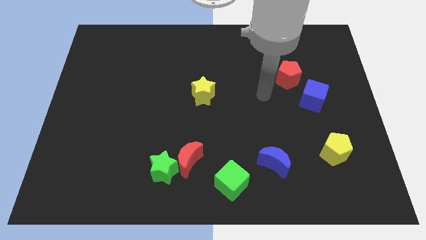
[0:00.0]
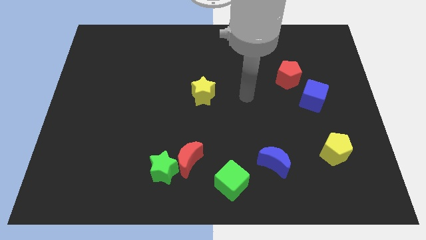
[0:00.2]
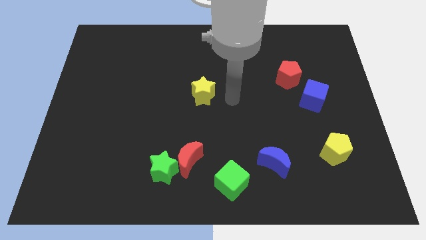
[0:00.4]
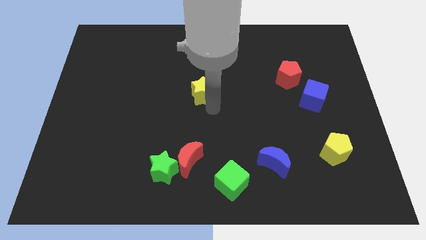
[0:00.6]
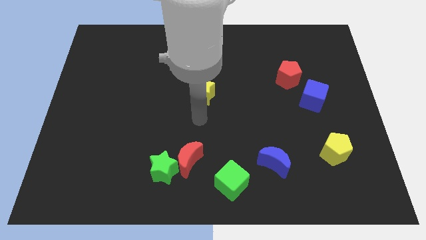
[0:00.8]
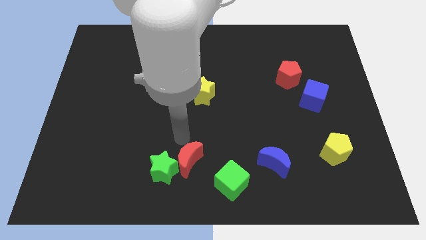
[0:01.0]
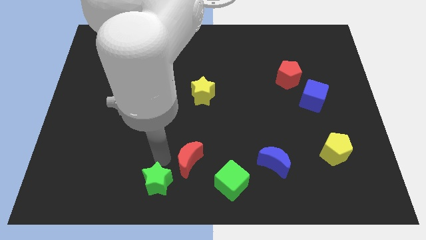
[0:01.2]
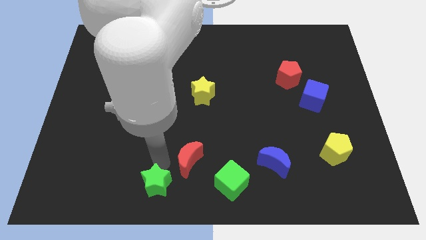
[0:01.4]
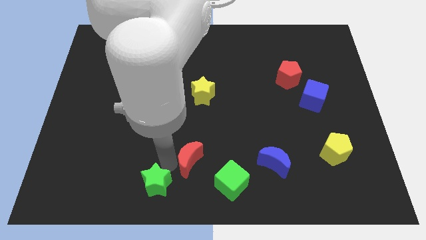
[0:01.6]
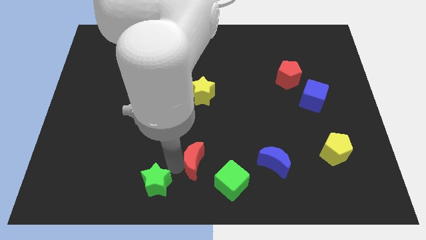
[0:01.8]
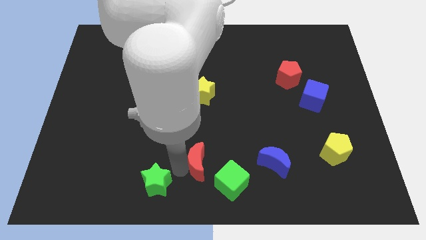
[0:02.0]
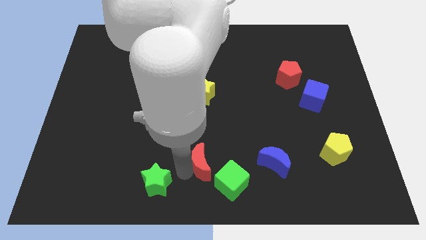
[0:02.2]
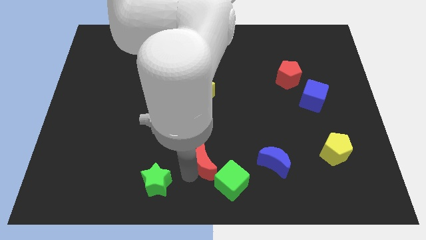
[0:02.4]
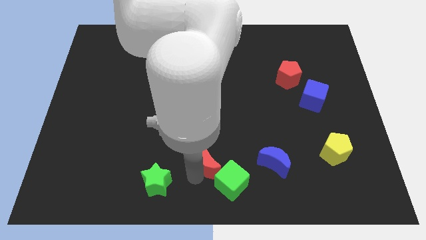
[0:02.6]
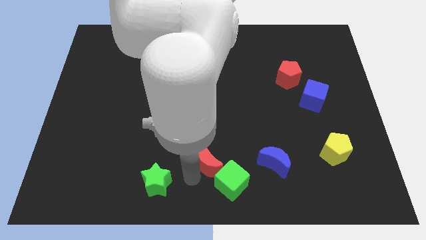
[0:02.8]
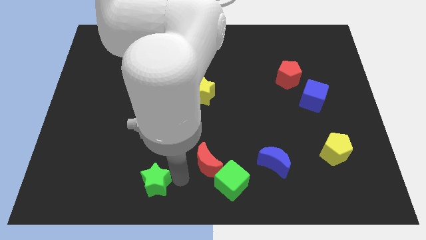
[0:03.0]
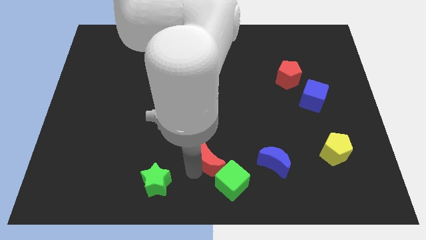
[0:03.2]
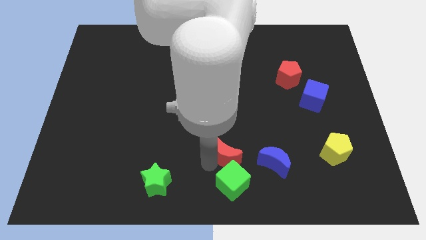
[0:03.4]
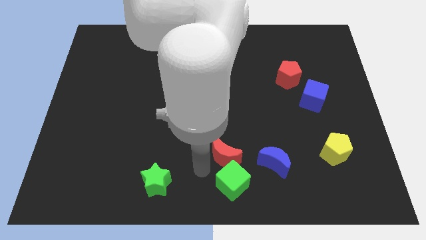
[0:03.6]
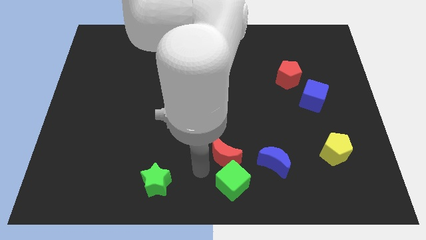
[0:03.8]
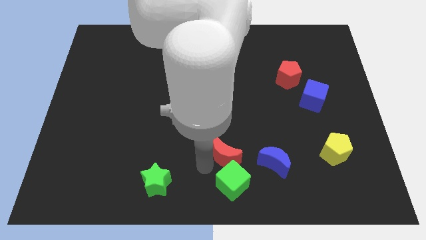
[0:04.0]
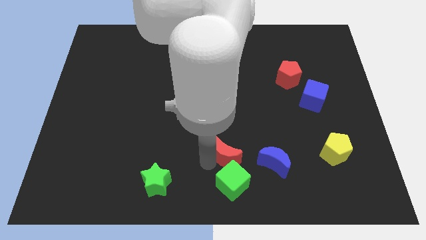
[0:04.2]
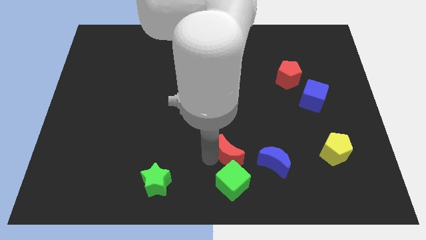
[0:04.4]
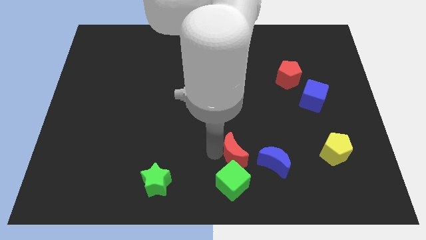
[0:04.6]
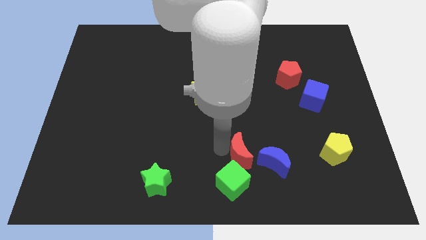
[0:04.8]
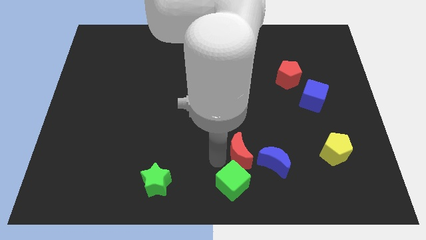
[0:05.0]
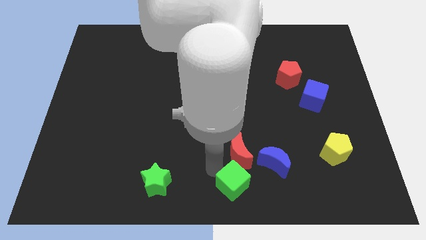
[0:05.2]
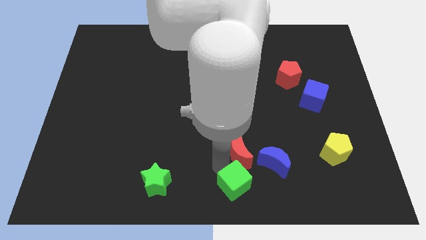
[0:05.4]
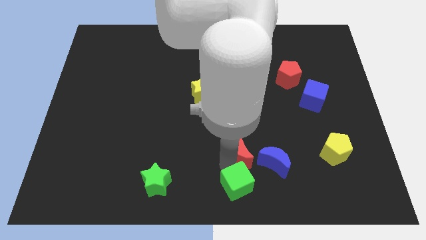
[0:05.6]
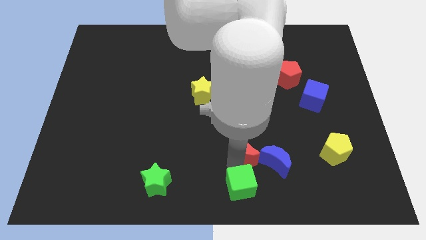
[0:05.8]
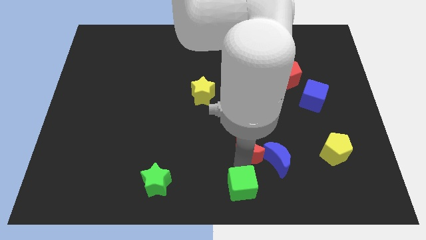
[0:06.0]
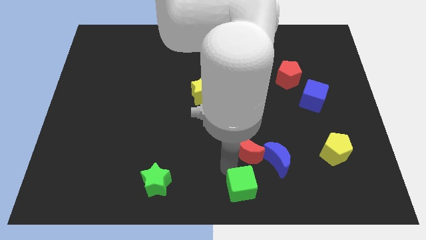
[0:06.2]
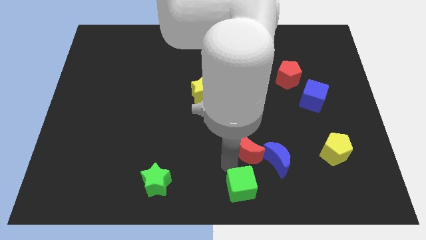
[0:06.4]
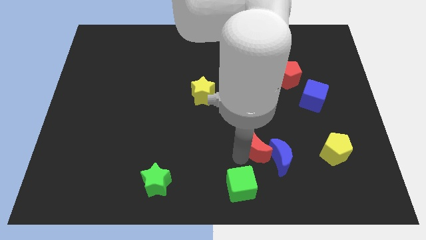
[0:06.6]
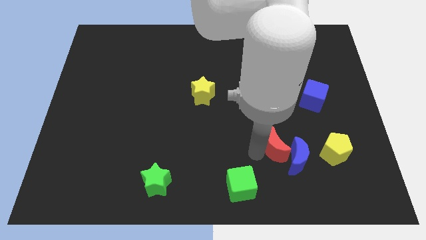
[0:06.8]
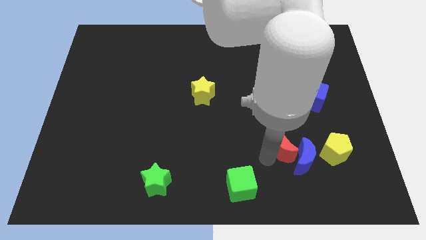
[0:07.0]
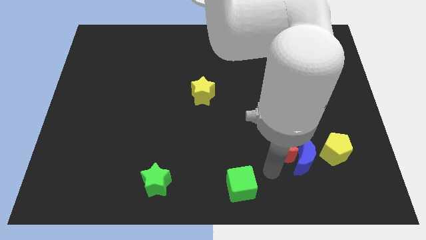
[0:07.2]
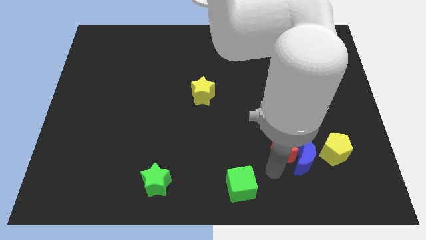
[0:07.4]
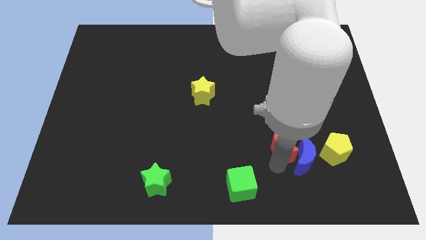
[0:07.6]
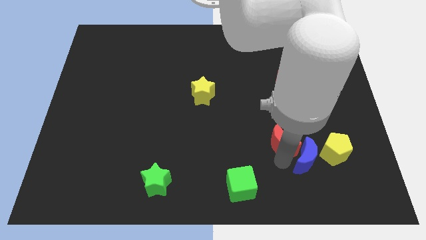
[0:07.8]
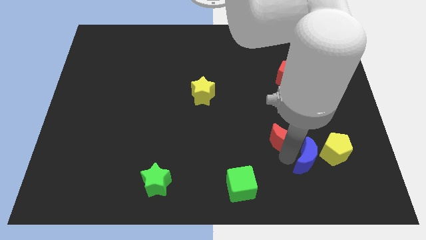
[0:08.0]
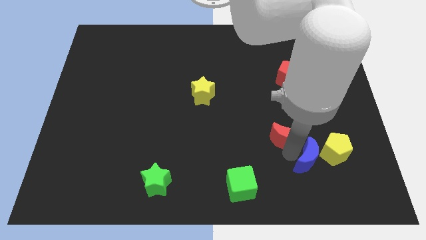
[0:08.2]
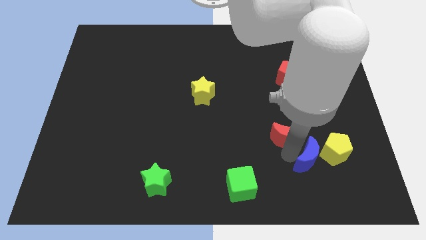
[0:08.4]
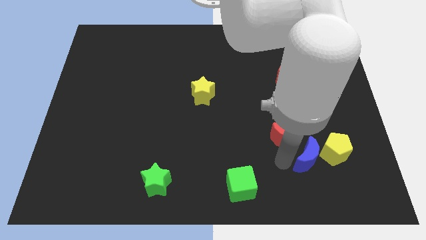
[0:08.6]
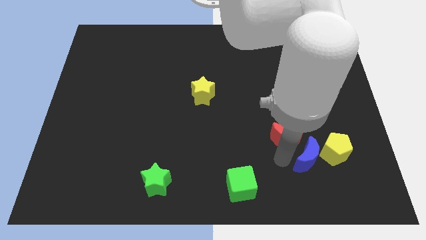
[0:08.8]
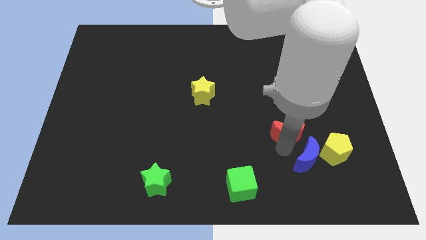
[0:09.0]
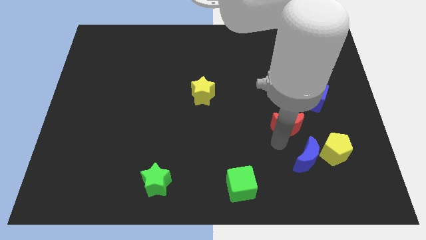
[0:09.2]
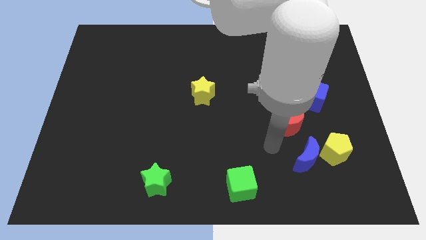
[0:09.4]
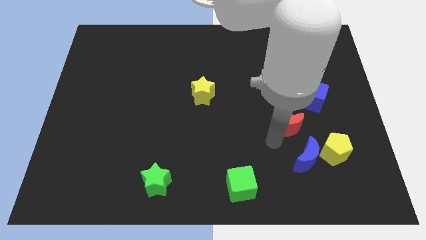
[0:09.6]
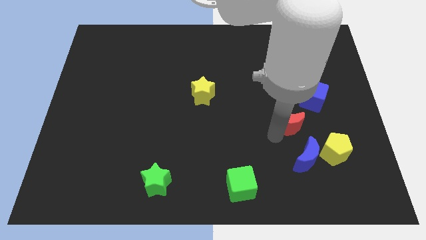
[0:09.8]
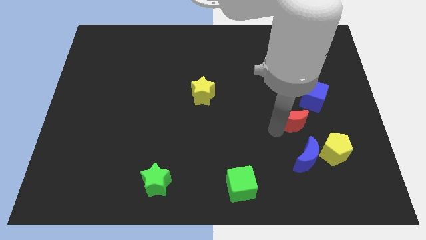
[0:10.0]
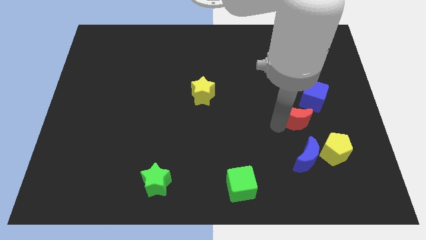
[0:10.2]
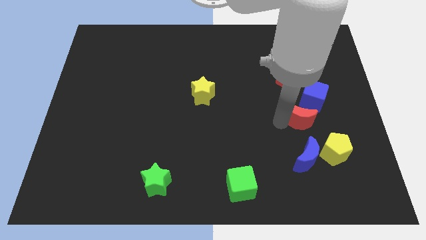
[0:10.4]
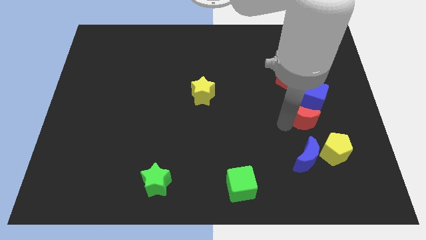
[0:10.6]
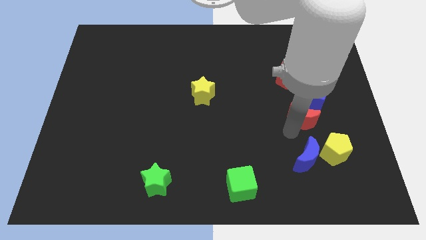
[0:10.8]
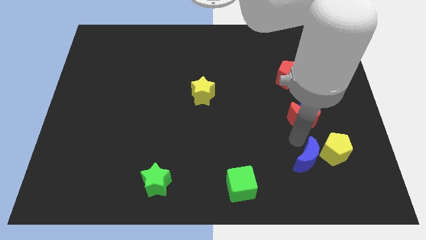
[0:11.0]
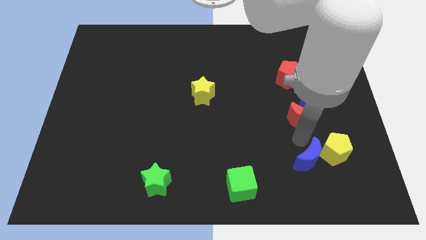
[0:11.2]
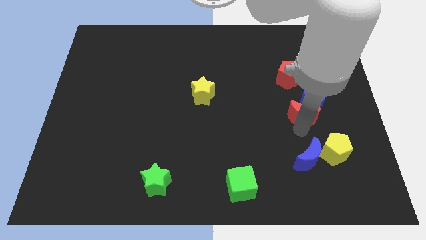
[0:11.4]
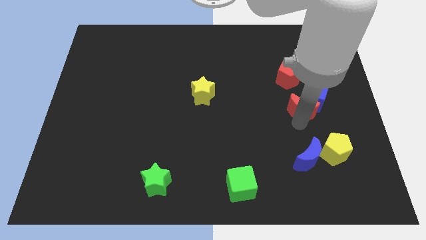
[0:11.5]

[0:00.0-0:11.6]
slide the red moon next to the blue cube

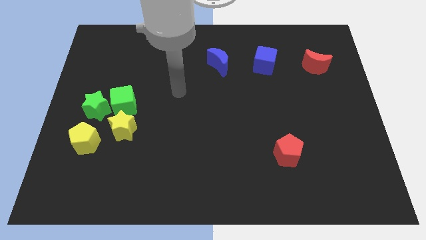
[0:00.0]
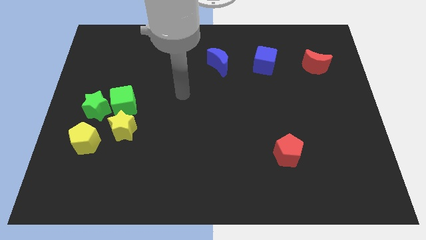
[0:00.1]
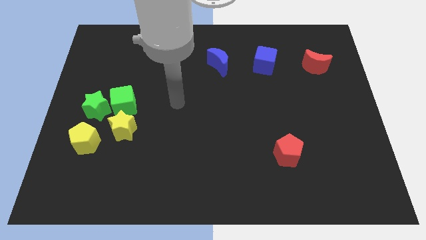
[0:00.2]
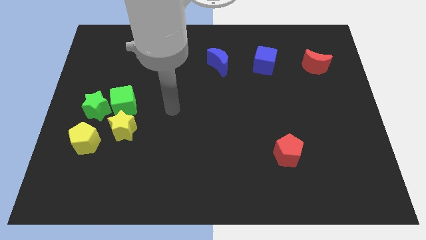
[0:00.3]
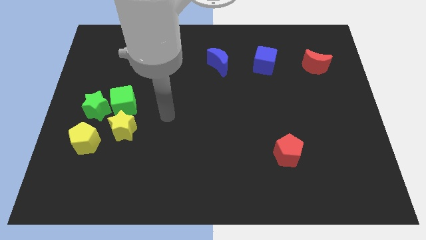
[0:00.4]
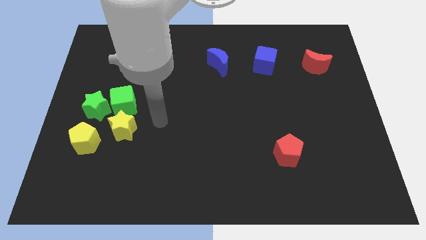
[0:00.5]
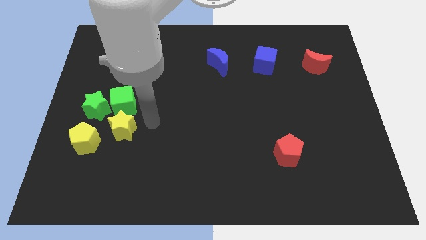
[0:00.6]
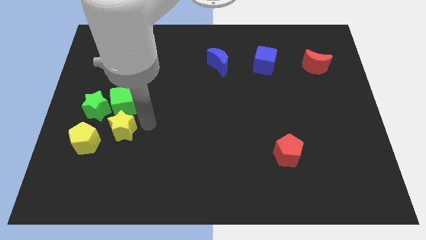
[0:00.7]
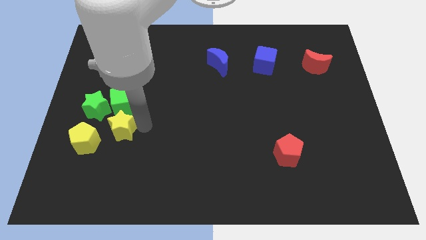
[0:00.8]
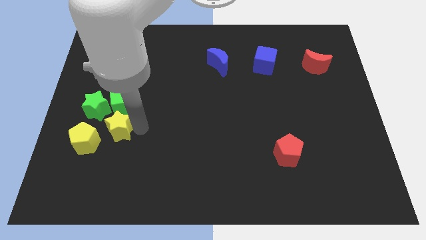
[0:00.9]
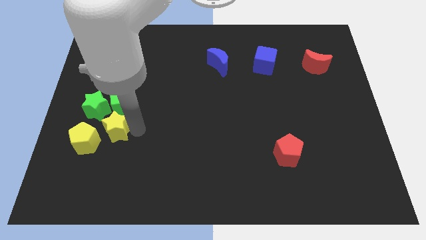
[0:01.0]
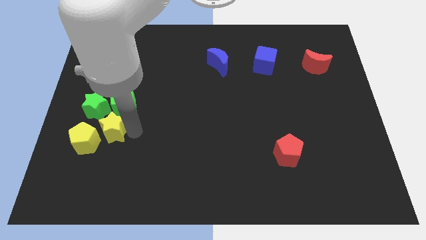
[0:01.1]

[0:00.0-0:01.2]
move the yellow star next to the yellow pentagon

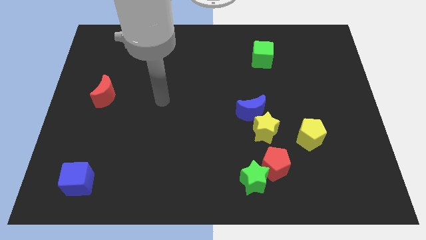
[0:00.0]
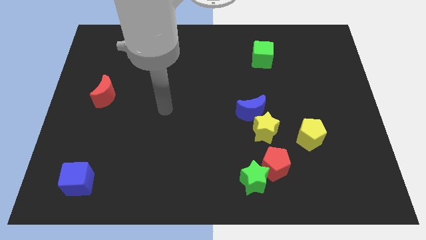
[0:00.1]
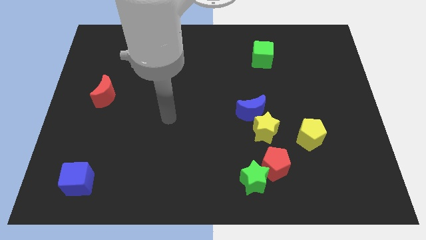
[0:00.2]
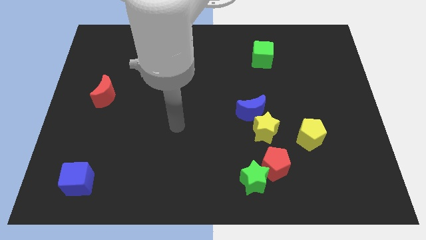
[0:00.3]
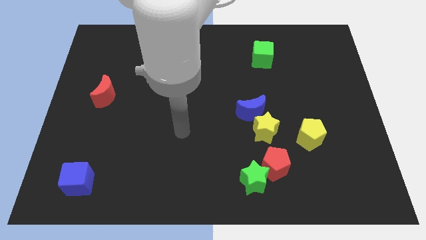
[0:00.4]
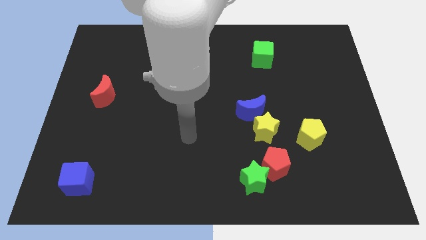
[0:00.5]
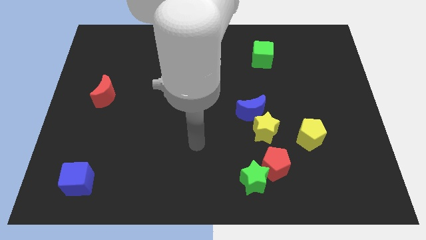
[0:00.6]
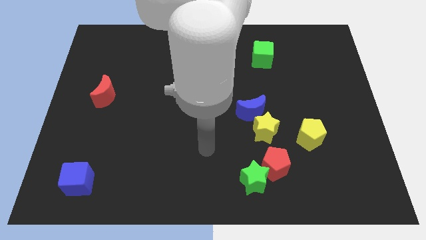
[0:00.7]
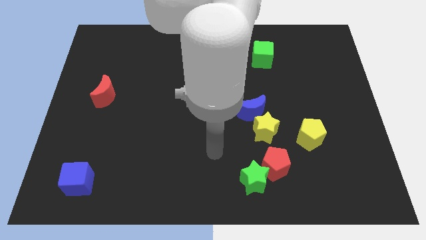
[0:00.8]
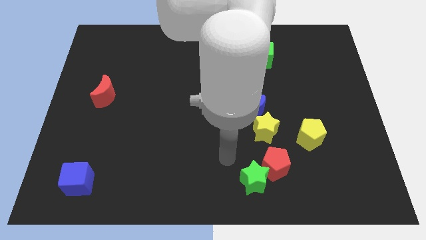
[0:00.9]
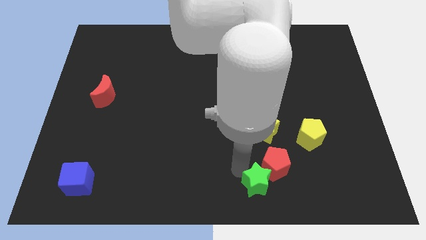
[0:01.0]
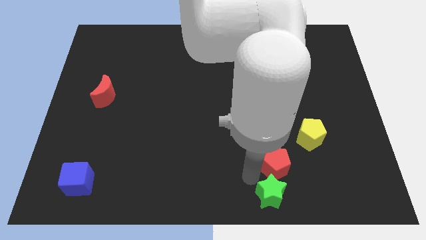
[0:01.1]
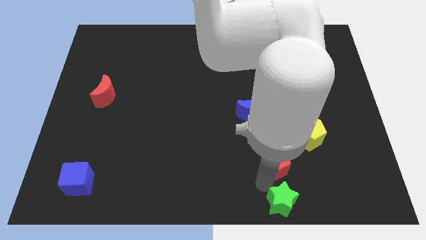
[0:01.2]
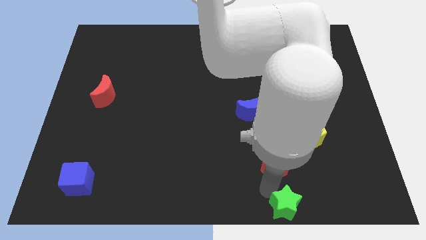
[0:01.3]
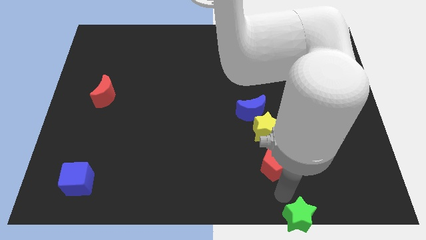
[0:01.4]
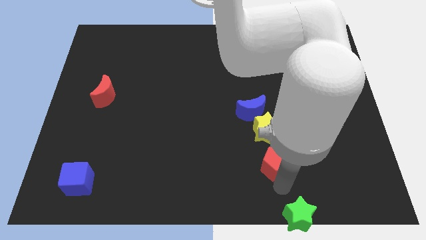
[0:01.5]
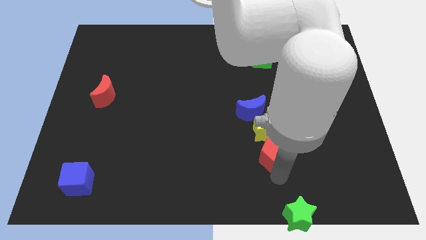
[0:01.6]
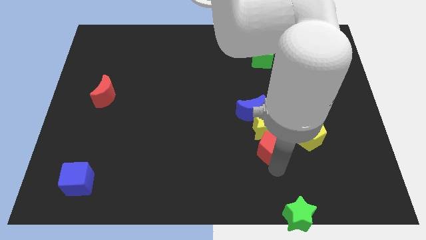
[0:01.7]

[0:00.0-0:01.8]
push the red pentagon next to the yellow star
